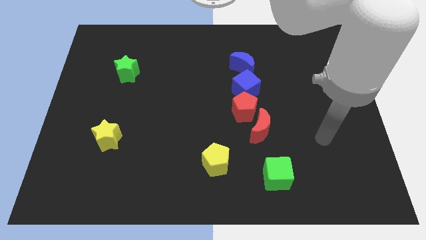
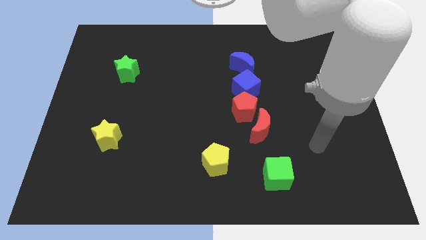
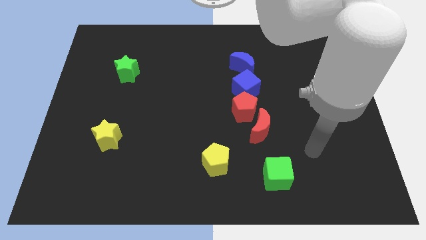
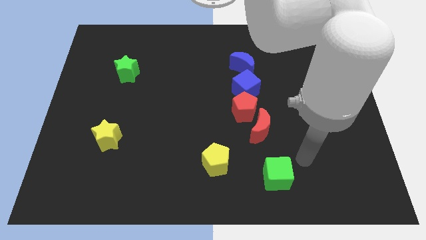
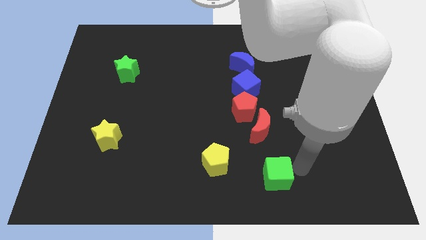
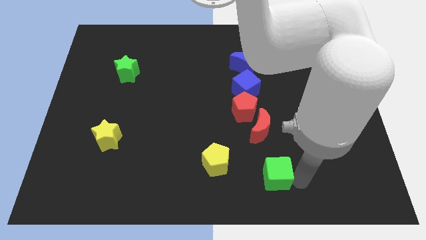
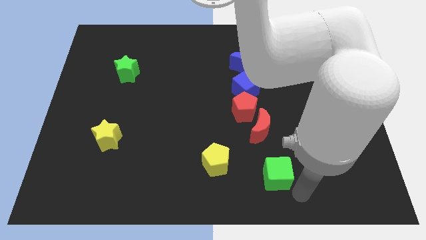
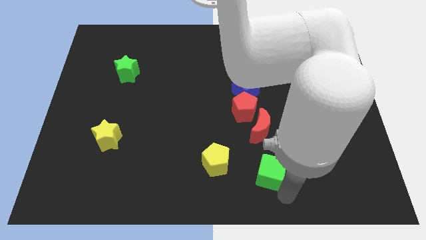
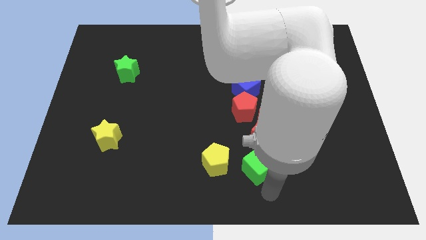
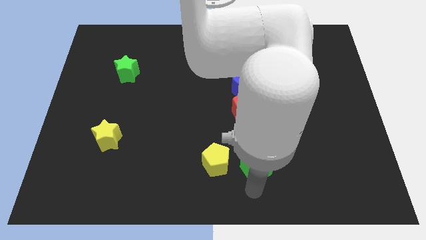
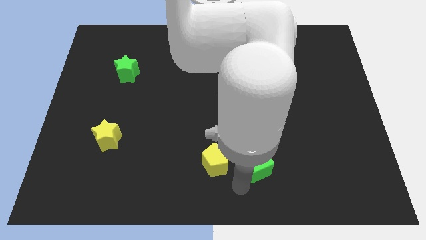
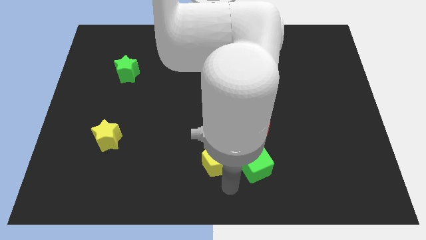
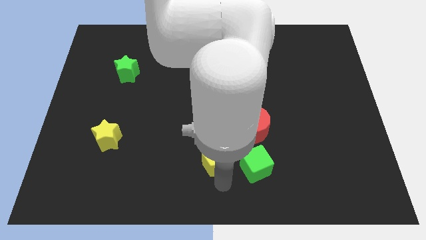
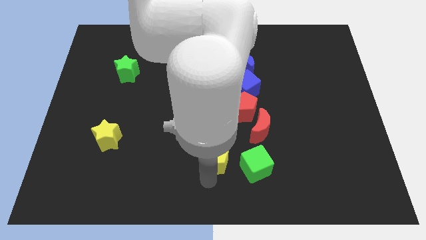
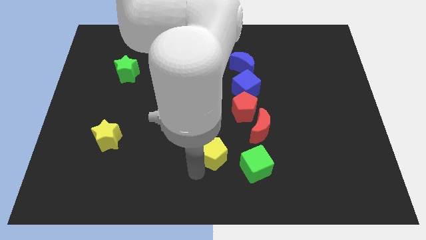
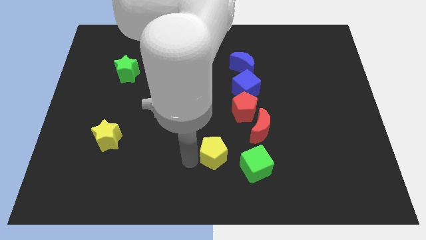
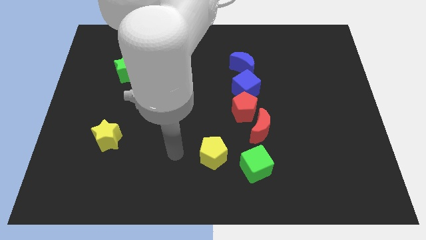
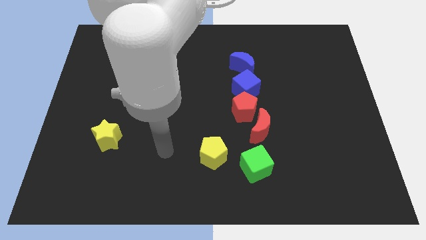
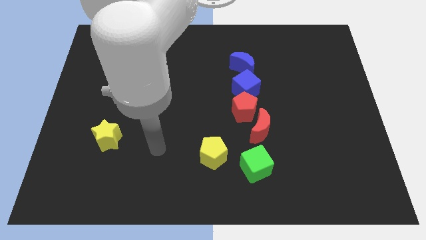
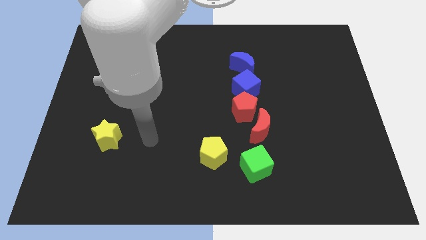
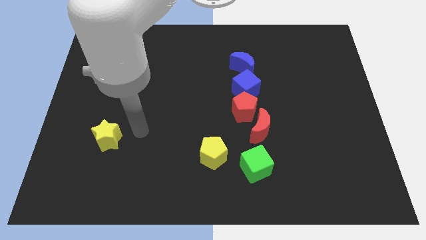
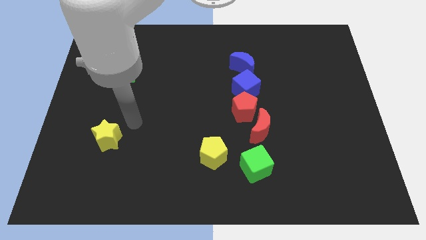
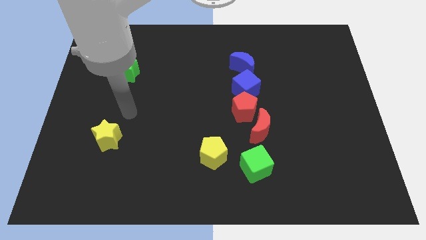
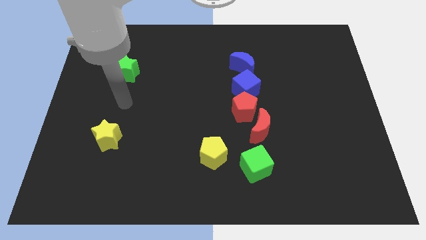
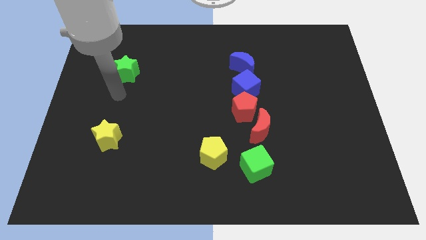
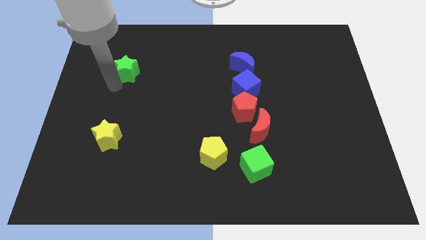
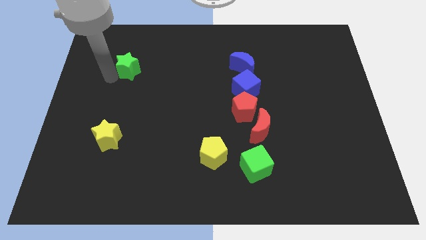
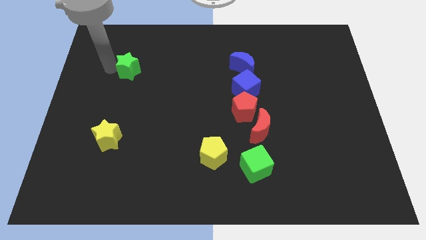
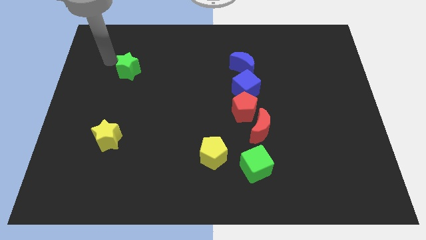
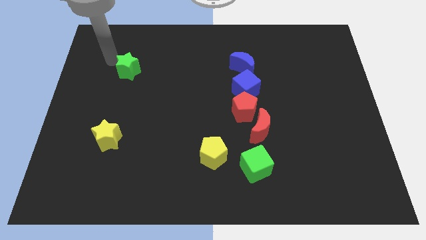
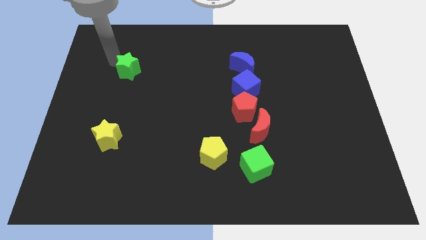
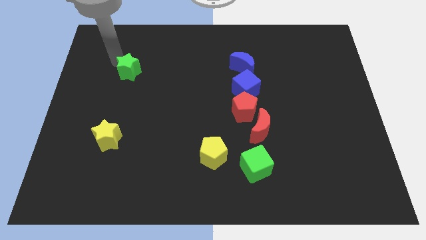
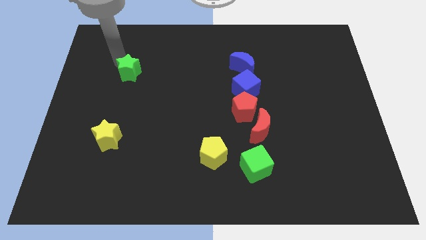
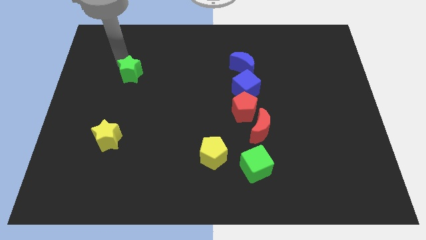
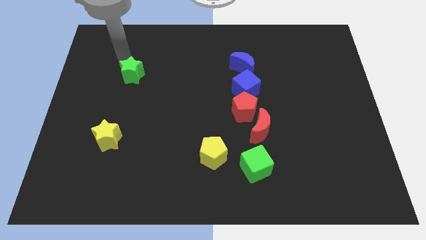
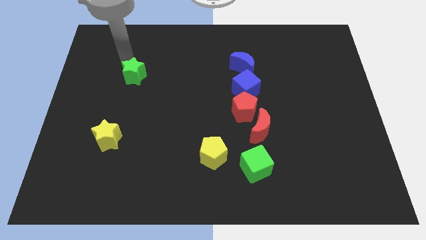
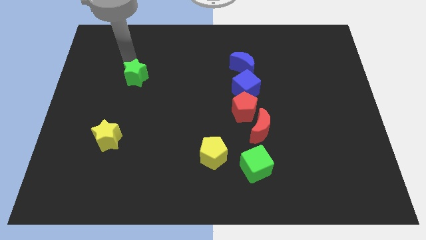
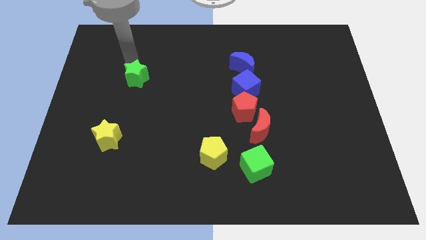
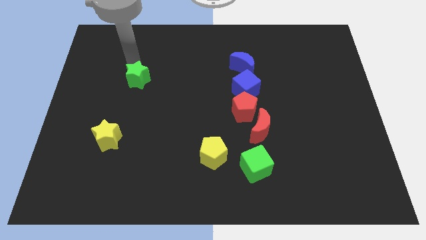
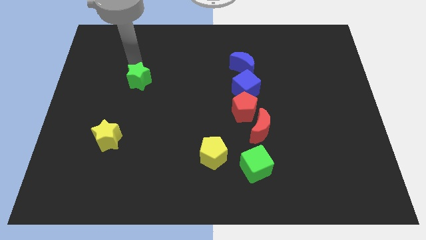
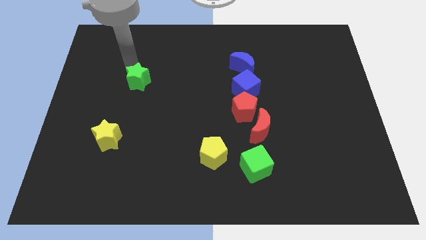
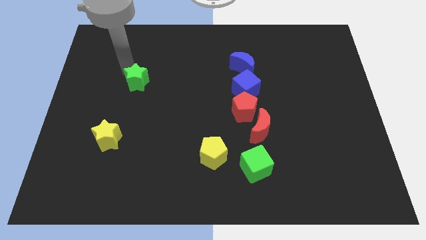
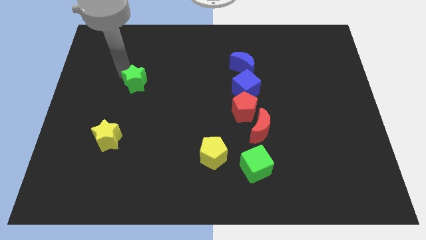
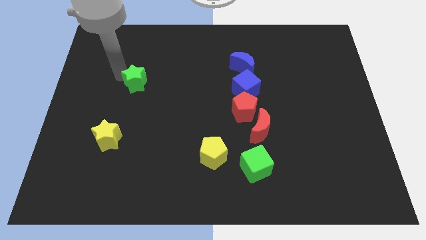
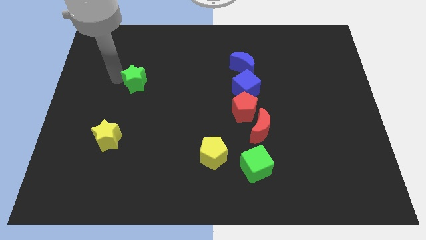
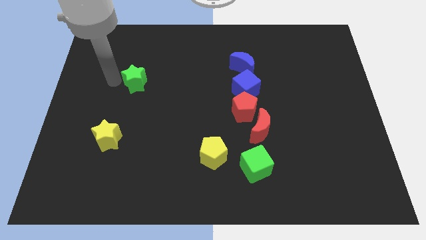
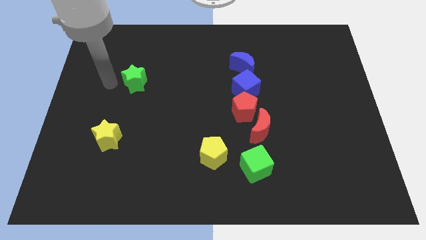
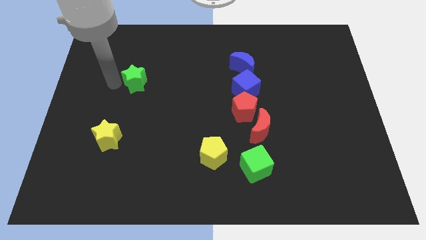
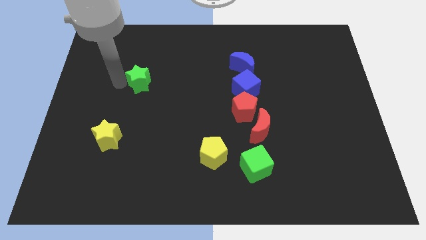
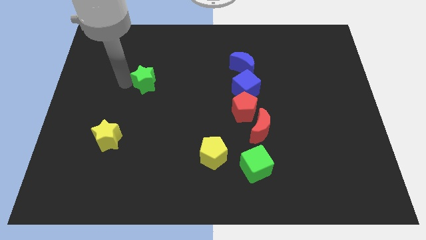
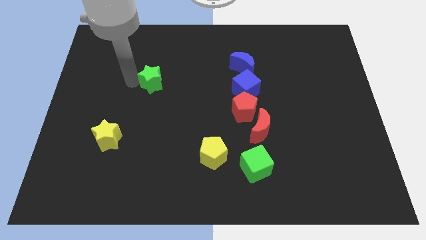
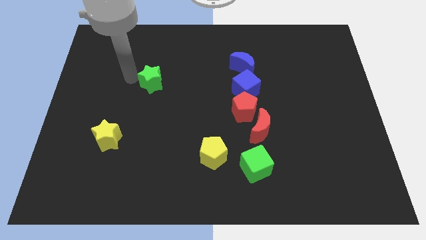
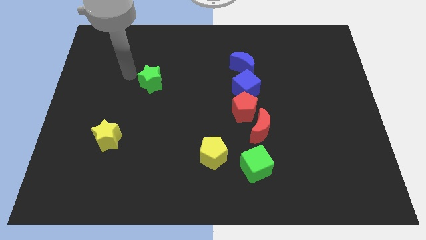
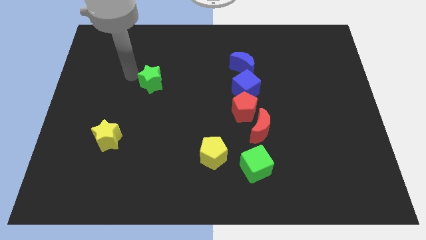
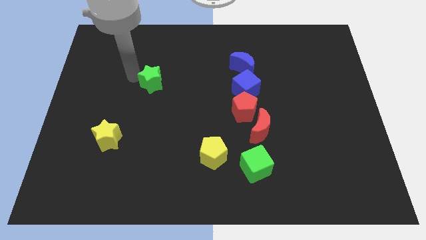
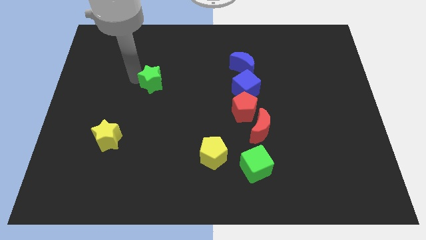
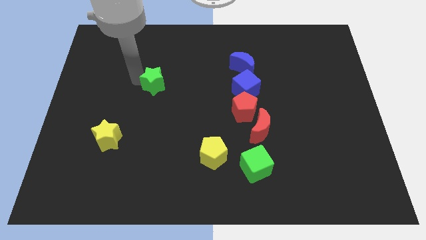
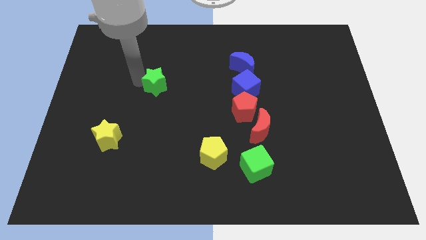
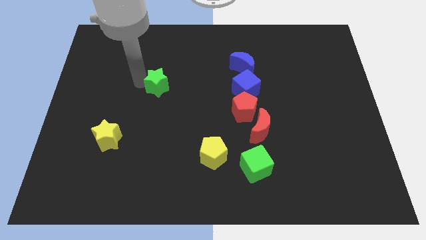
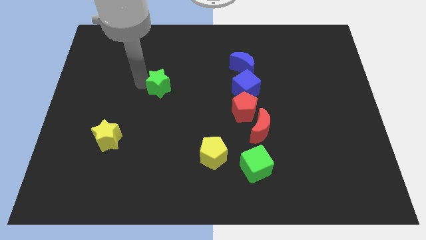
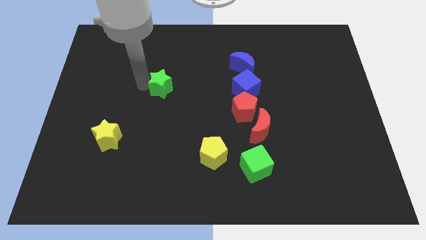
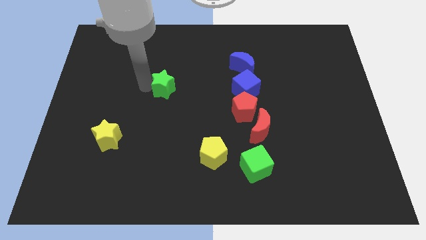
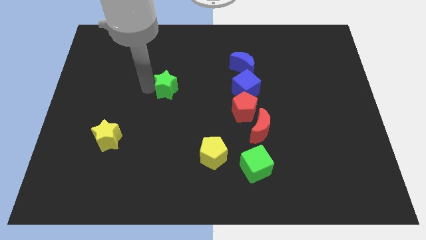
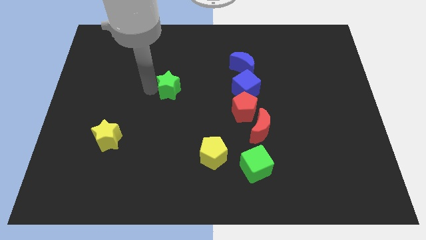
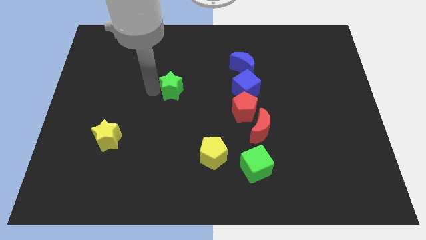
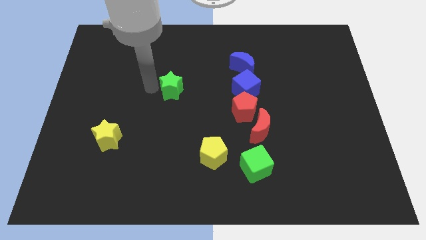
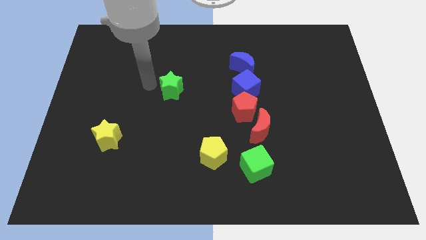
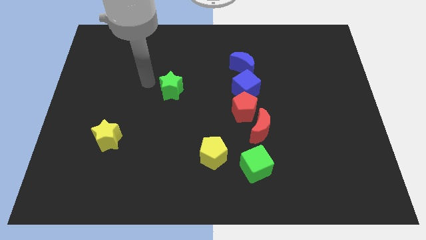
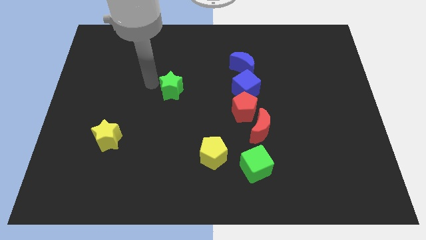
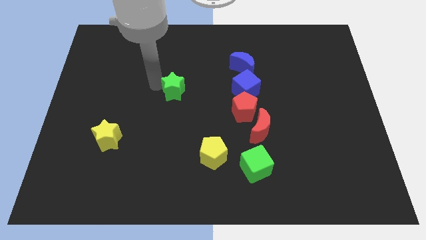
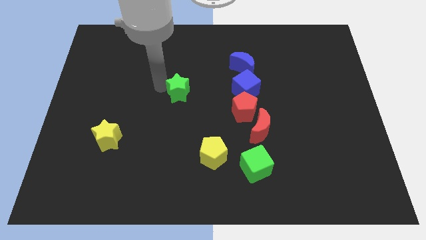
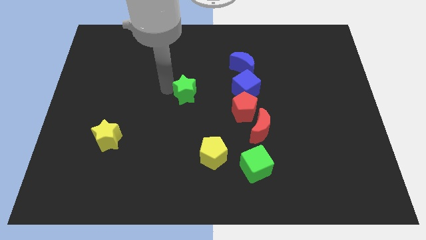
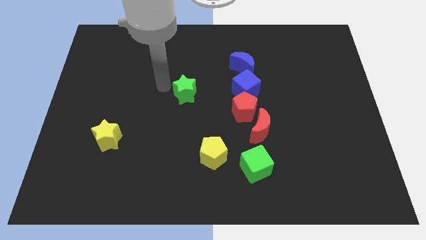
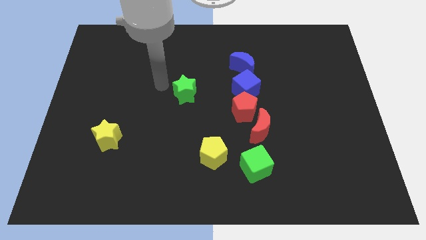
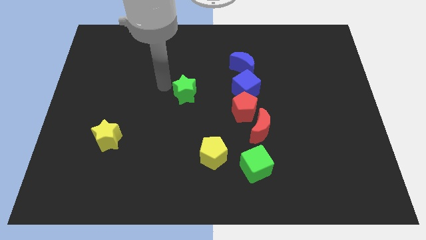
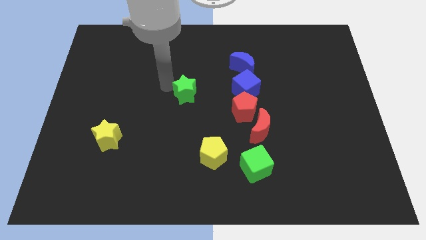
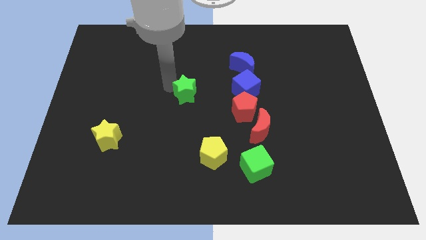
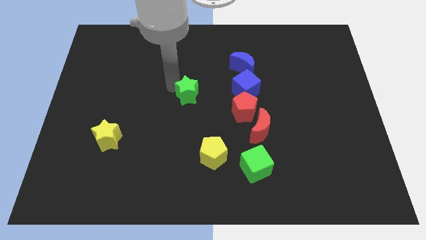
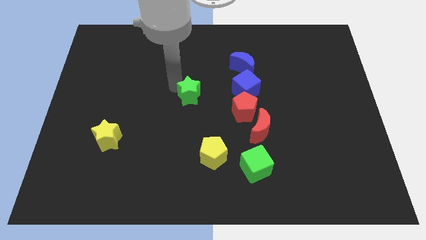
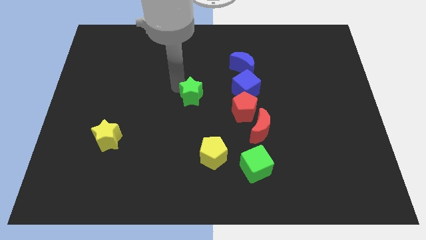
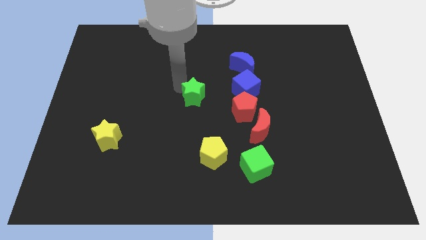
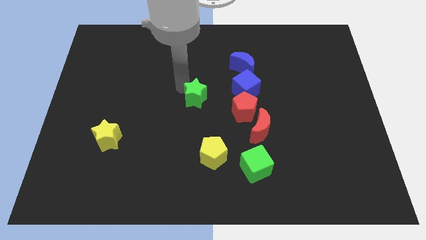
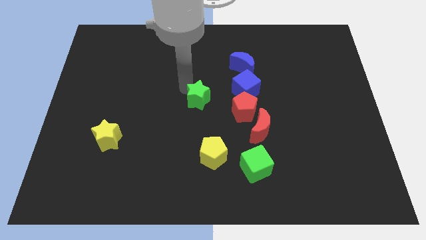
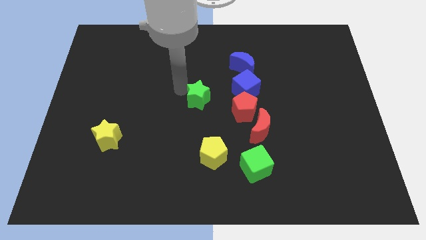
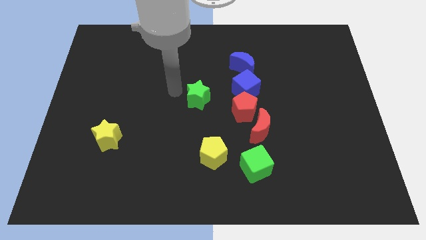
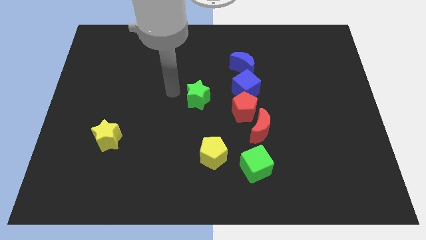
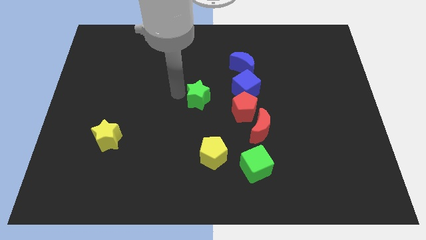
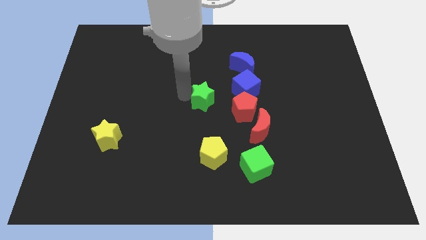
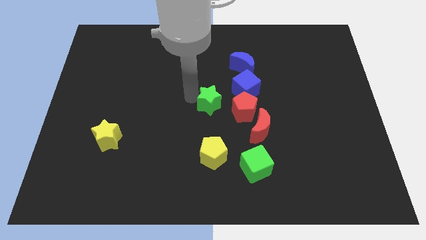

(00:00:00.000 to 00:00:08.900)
move the green star diagonally down and to the left of the blue cube
